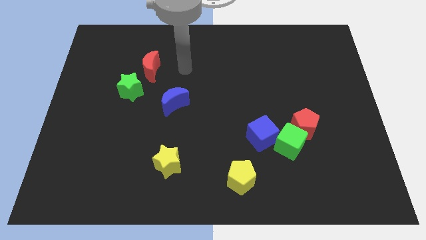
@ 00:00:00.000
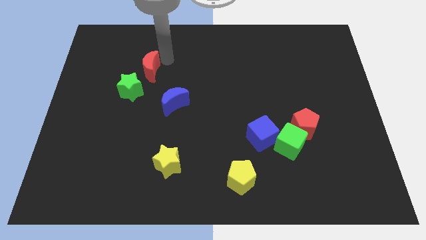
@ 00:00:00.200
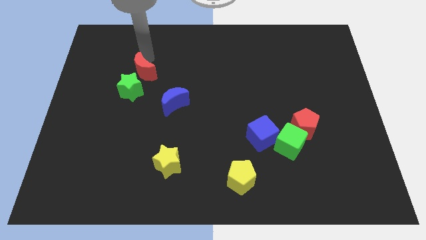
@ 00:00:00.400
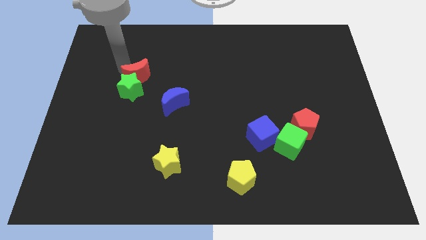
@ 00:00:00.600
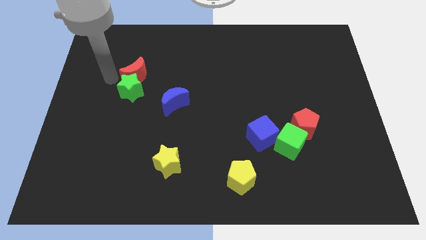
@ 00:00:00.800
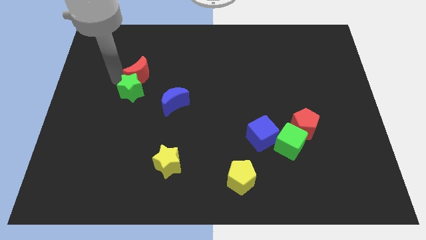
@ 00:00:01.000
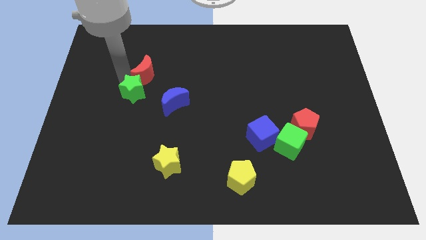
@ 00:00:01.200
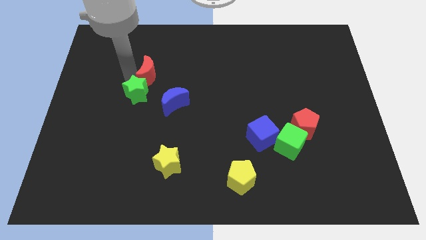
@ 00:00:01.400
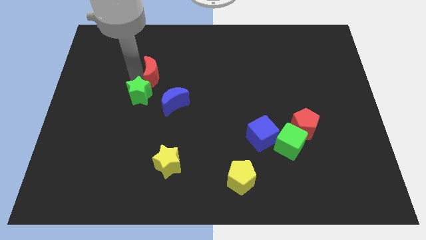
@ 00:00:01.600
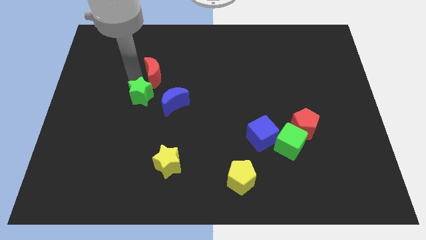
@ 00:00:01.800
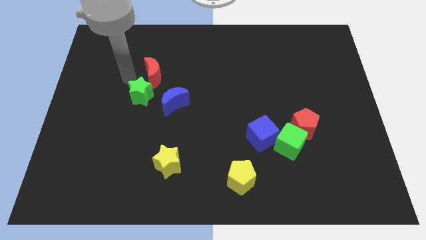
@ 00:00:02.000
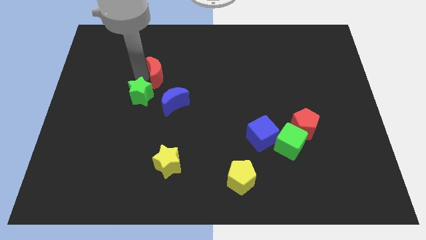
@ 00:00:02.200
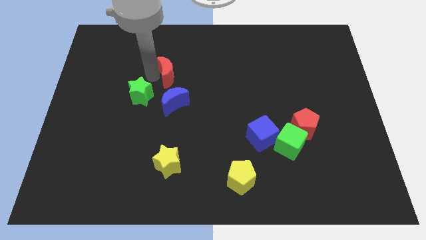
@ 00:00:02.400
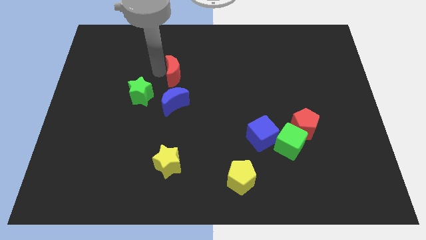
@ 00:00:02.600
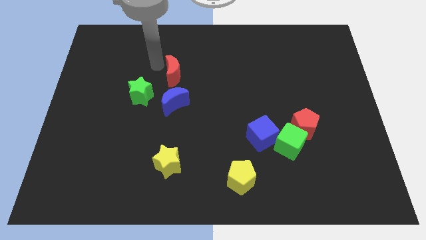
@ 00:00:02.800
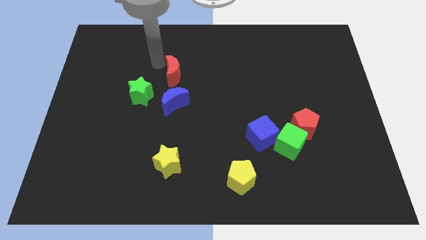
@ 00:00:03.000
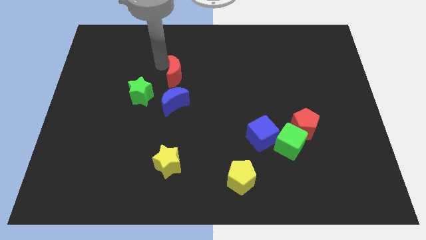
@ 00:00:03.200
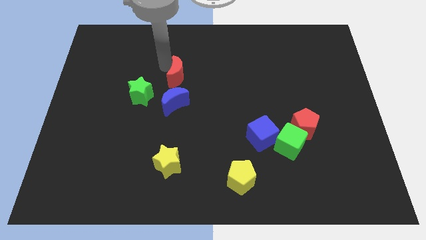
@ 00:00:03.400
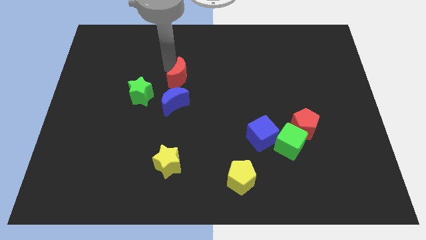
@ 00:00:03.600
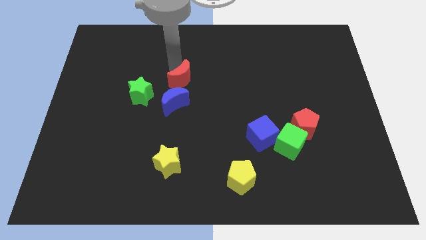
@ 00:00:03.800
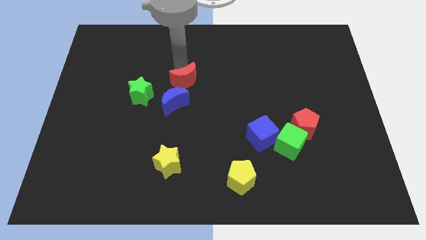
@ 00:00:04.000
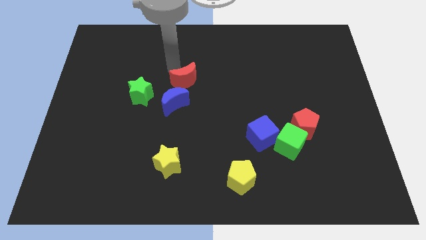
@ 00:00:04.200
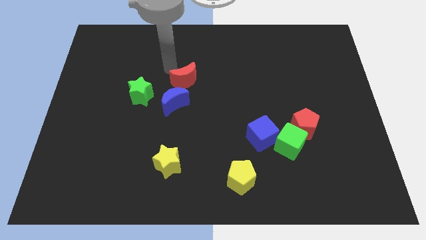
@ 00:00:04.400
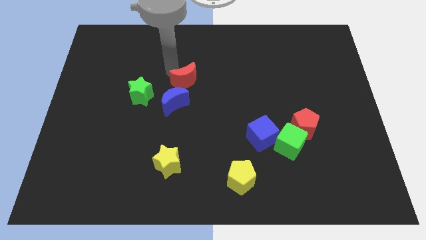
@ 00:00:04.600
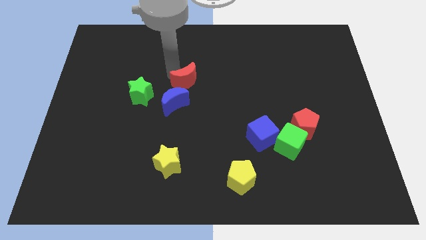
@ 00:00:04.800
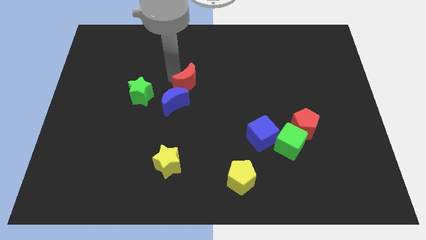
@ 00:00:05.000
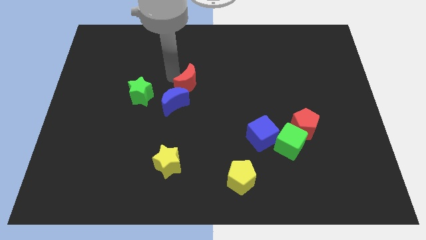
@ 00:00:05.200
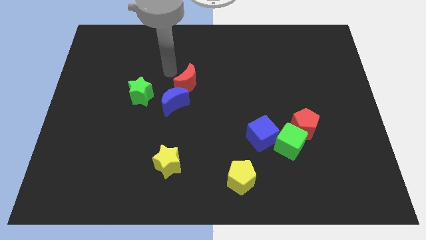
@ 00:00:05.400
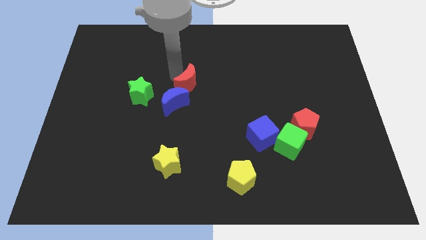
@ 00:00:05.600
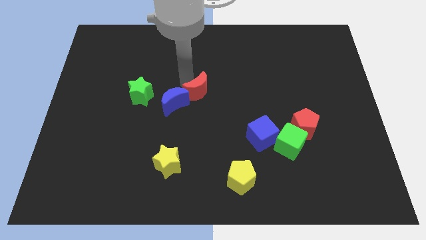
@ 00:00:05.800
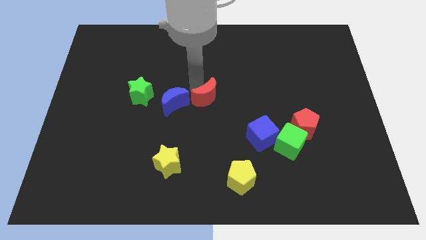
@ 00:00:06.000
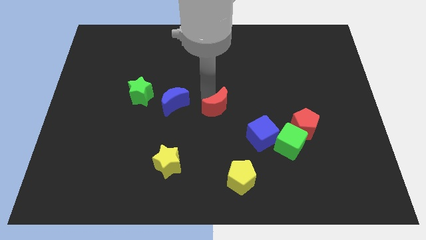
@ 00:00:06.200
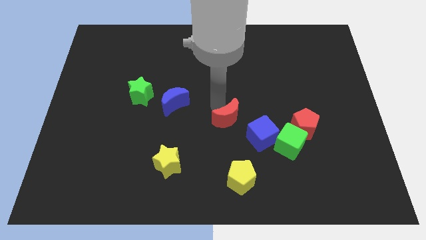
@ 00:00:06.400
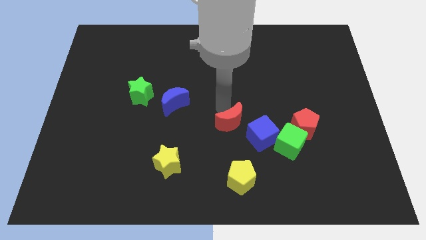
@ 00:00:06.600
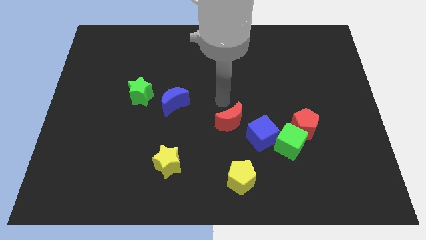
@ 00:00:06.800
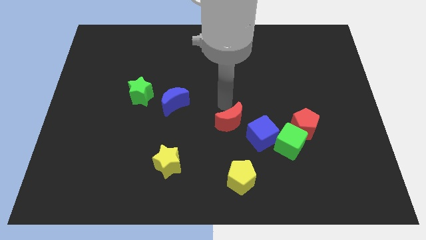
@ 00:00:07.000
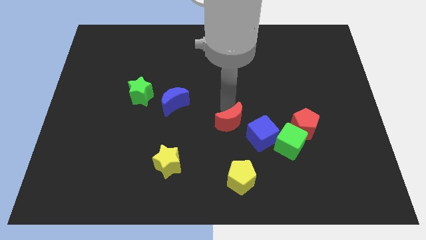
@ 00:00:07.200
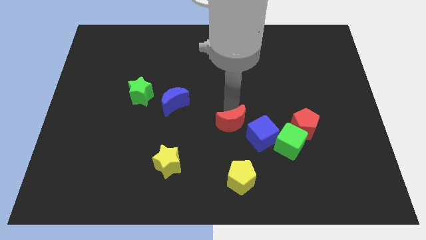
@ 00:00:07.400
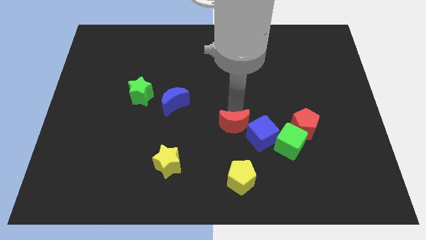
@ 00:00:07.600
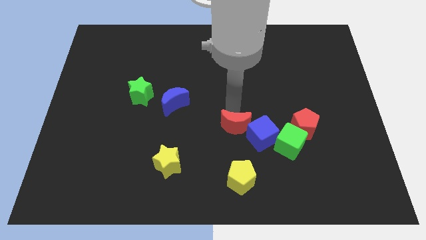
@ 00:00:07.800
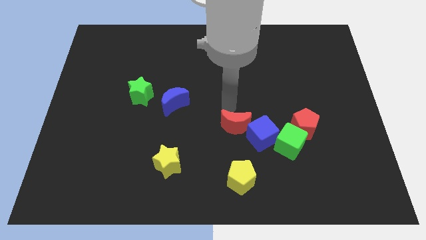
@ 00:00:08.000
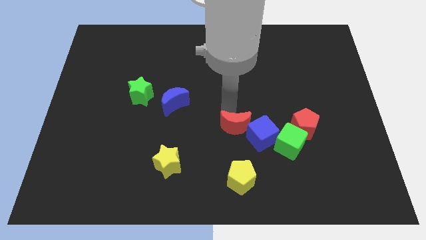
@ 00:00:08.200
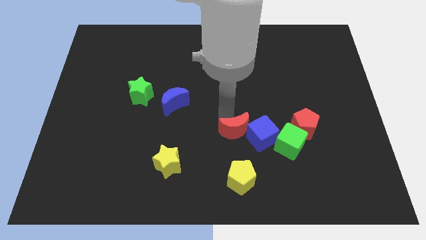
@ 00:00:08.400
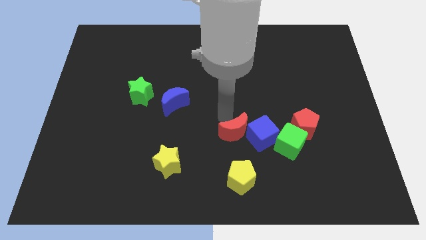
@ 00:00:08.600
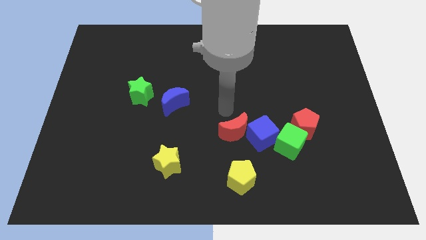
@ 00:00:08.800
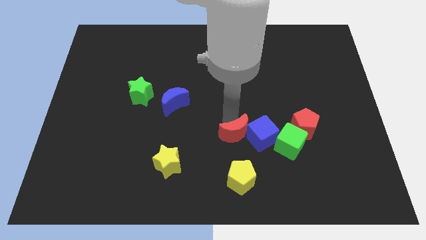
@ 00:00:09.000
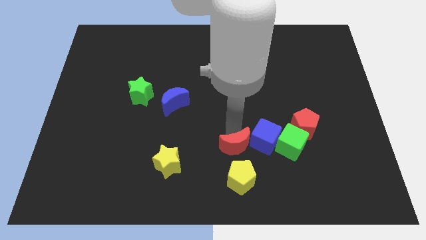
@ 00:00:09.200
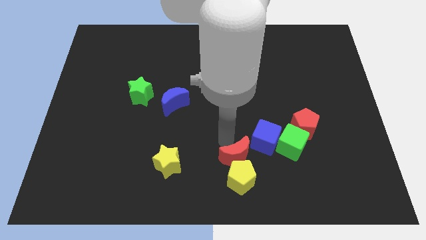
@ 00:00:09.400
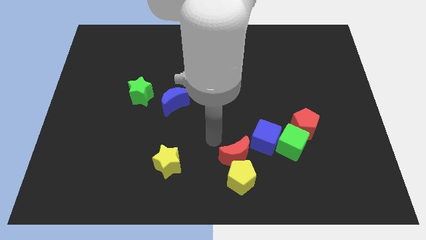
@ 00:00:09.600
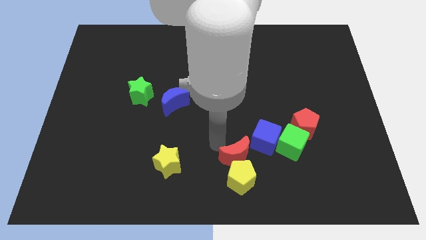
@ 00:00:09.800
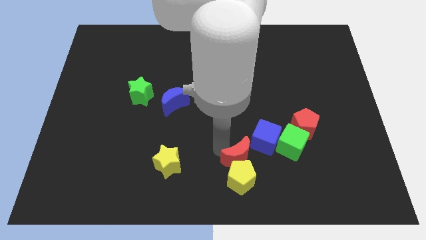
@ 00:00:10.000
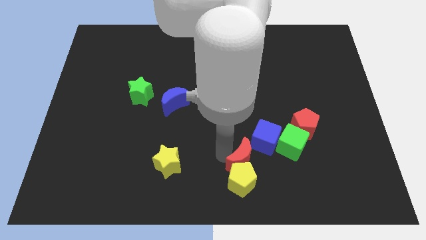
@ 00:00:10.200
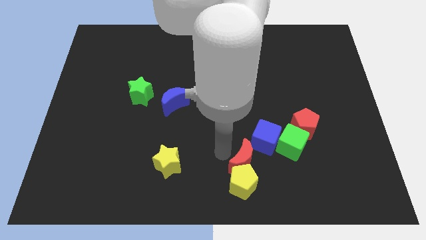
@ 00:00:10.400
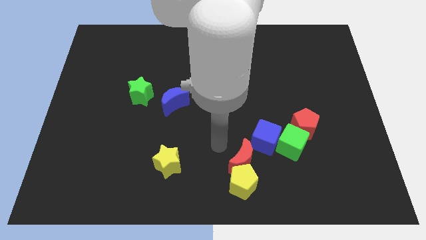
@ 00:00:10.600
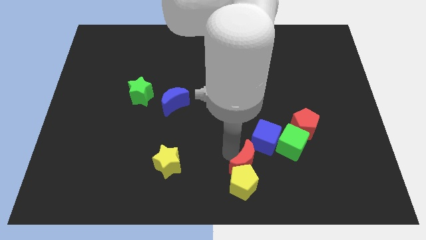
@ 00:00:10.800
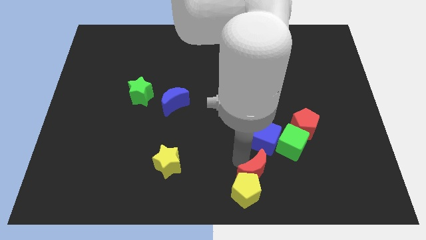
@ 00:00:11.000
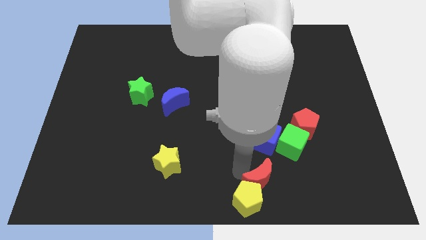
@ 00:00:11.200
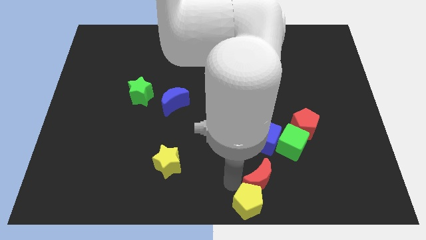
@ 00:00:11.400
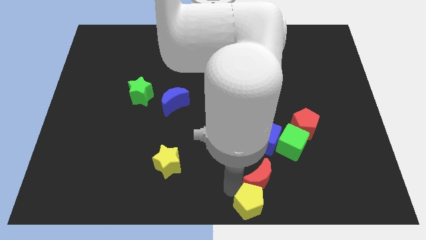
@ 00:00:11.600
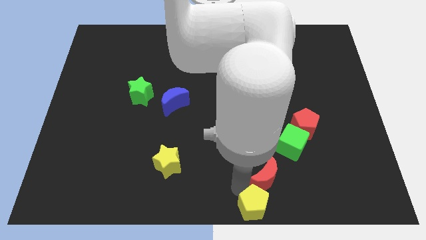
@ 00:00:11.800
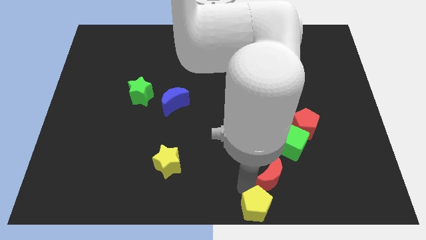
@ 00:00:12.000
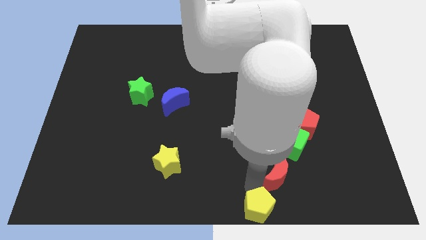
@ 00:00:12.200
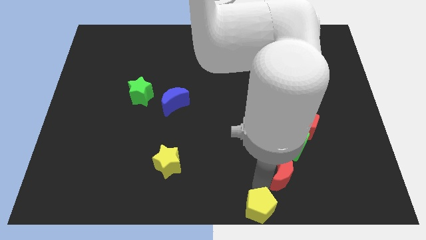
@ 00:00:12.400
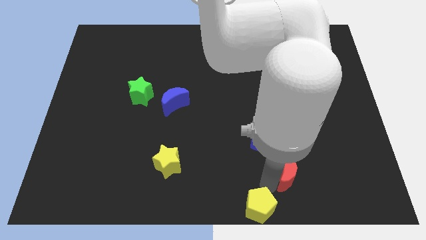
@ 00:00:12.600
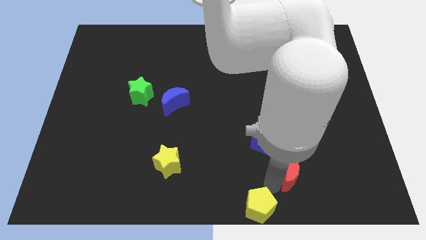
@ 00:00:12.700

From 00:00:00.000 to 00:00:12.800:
put the red moon to the bottom of the red pentagon
